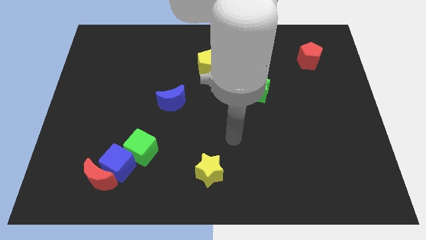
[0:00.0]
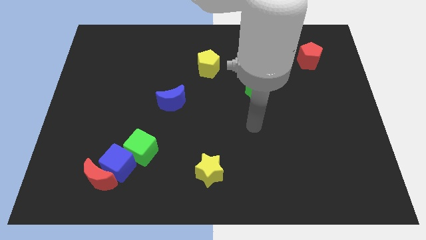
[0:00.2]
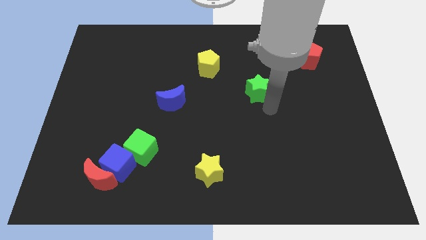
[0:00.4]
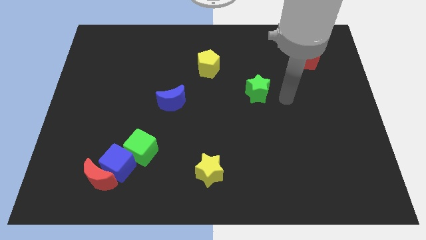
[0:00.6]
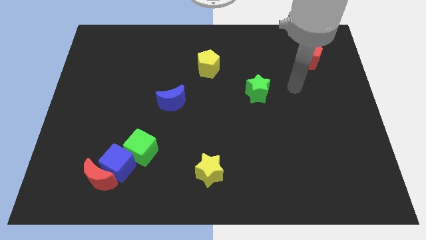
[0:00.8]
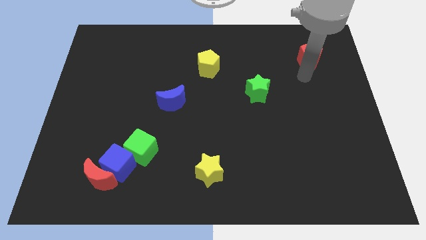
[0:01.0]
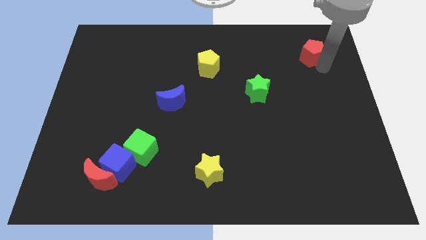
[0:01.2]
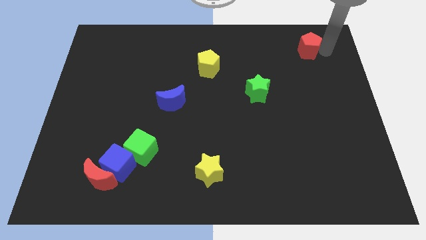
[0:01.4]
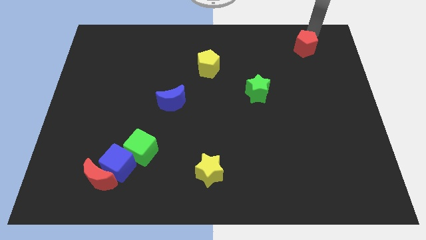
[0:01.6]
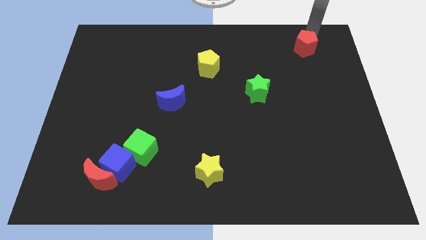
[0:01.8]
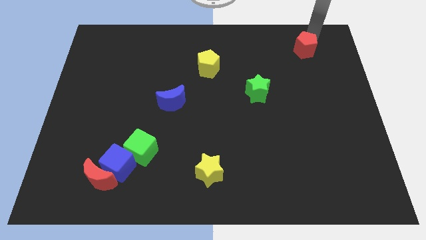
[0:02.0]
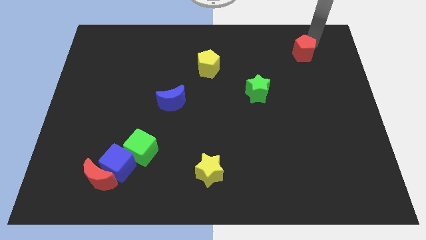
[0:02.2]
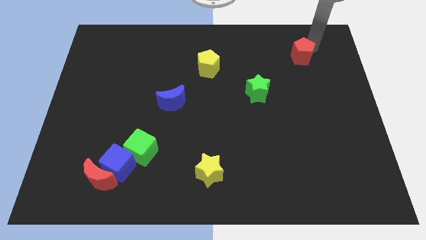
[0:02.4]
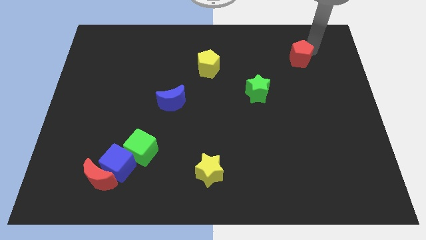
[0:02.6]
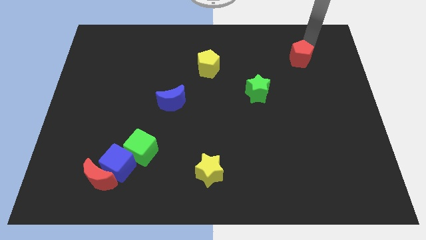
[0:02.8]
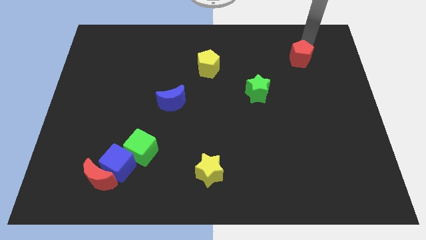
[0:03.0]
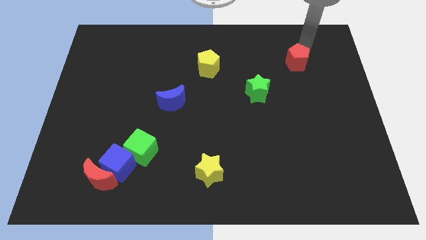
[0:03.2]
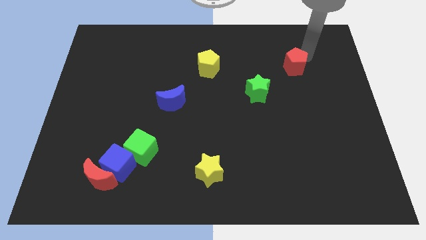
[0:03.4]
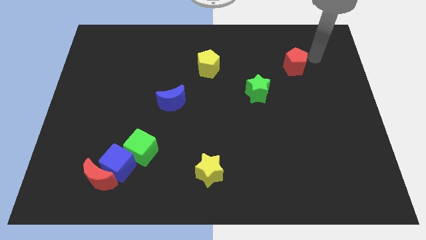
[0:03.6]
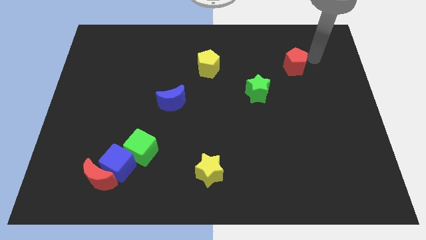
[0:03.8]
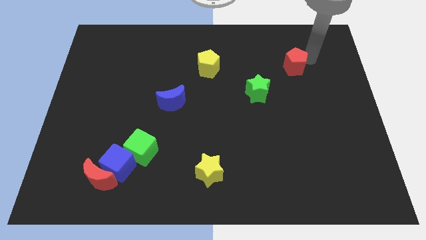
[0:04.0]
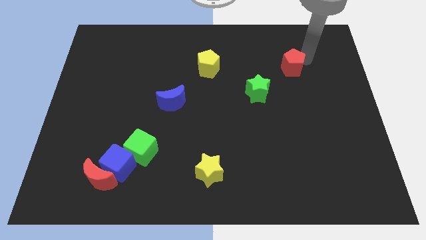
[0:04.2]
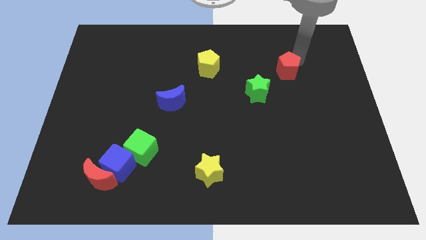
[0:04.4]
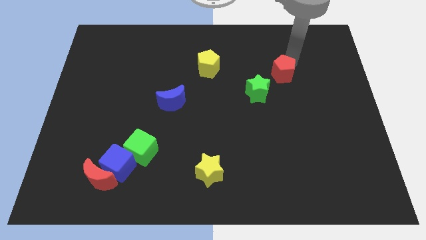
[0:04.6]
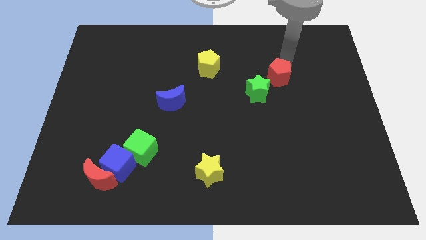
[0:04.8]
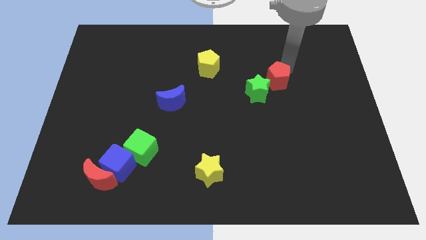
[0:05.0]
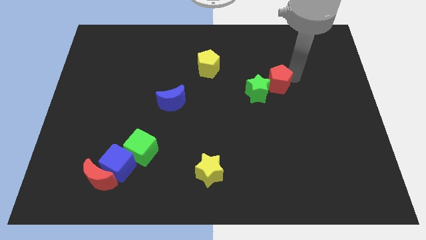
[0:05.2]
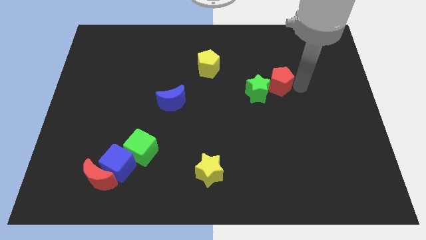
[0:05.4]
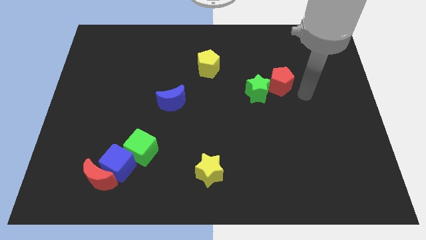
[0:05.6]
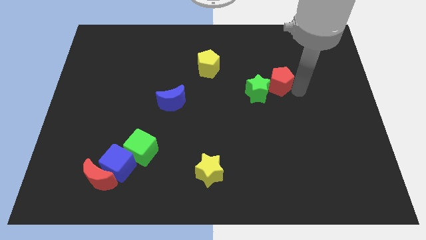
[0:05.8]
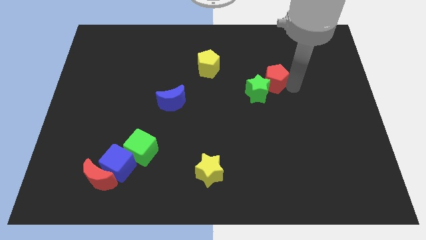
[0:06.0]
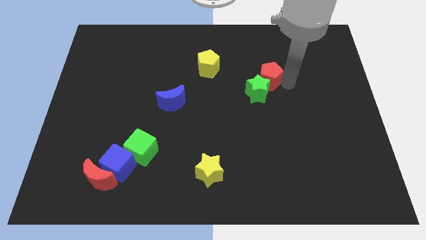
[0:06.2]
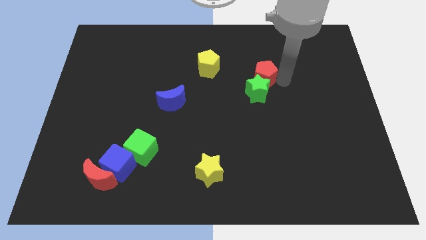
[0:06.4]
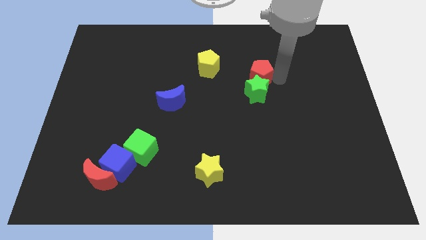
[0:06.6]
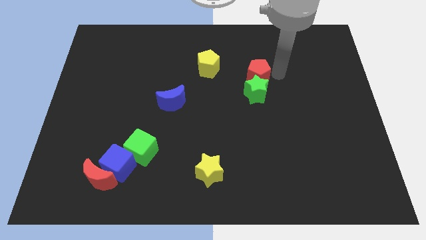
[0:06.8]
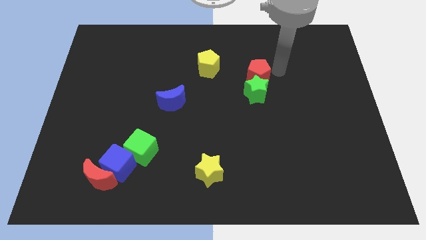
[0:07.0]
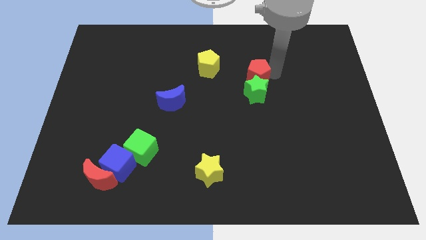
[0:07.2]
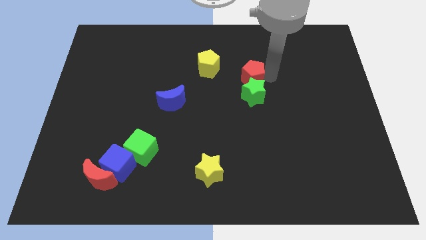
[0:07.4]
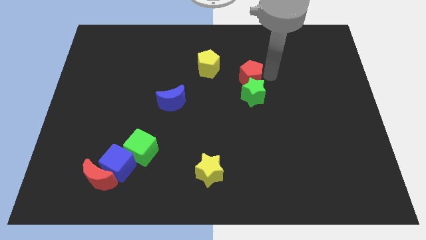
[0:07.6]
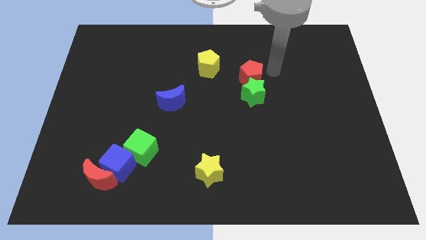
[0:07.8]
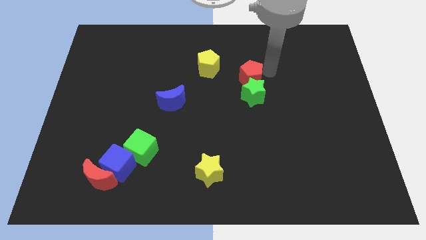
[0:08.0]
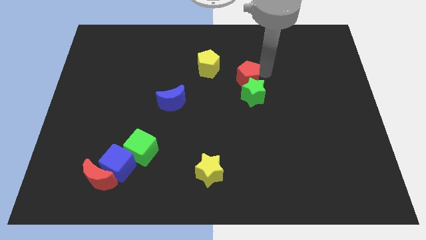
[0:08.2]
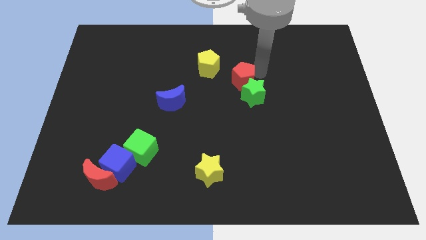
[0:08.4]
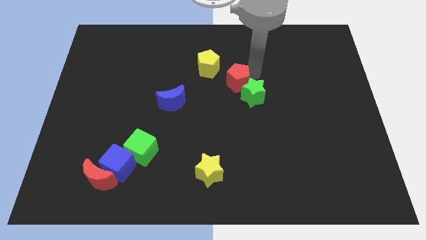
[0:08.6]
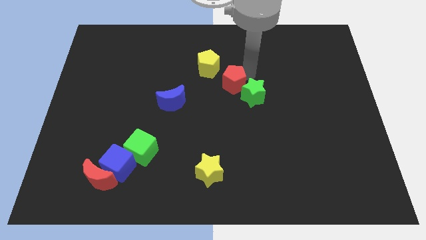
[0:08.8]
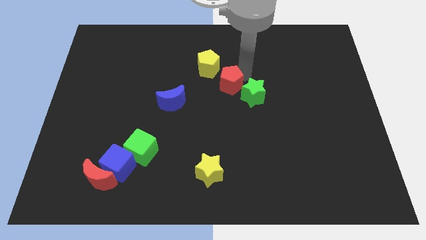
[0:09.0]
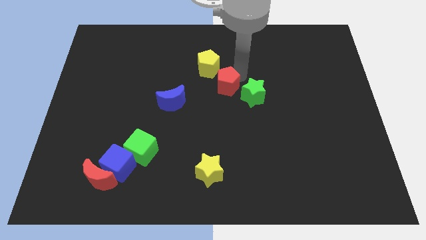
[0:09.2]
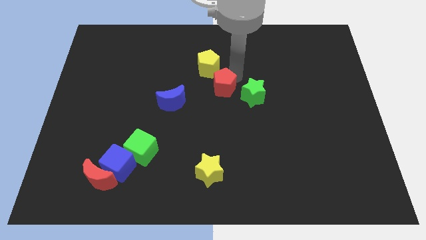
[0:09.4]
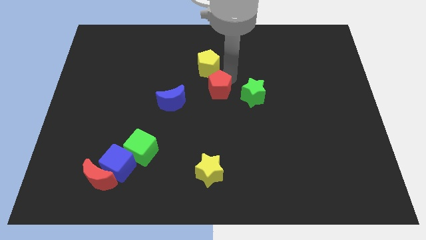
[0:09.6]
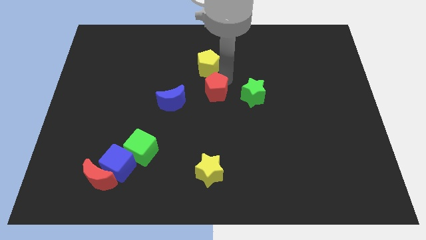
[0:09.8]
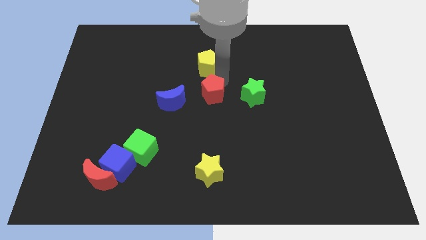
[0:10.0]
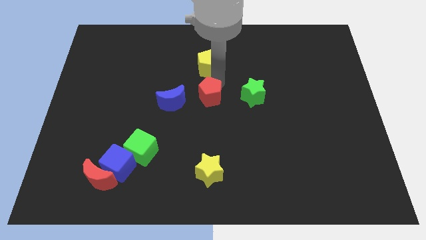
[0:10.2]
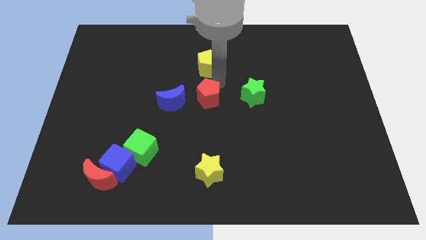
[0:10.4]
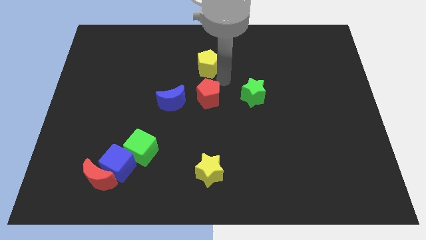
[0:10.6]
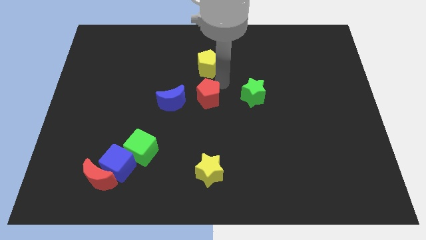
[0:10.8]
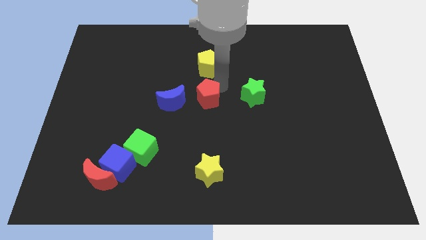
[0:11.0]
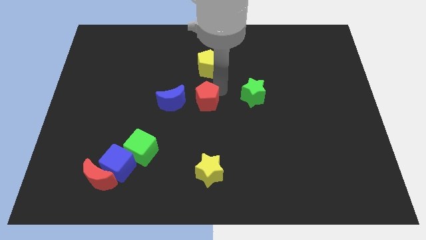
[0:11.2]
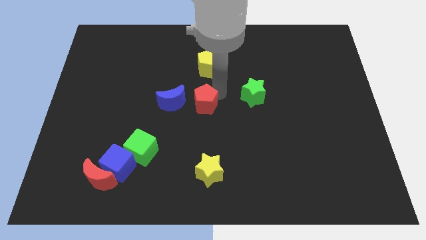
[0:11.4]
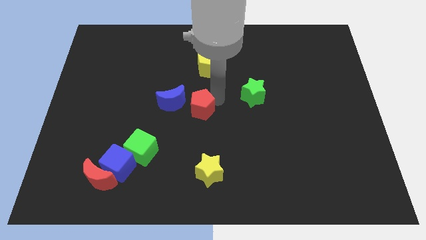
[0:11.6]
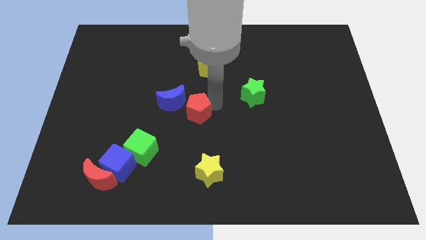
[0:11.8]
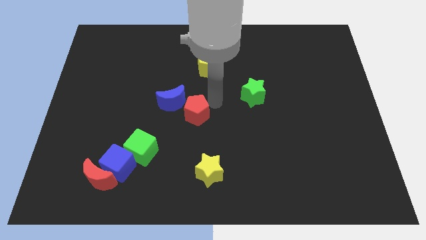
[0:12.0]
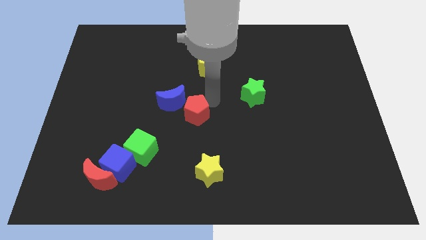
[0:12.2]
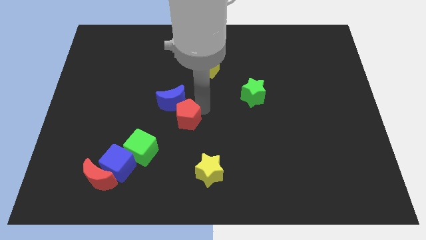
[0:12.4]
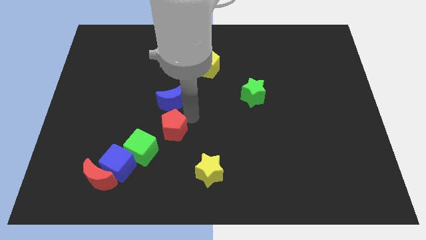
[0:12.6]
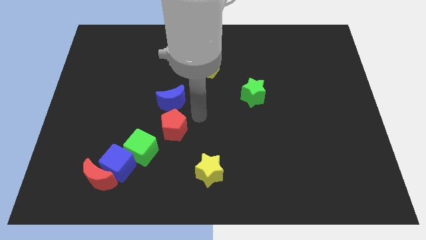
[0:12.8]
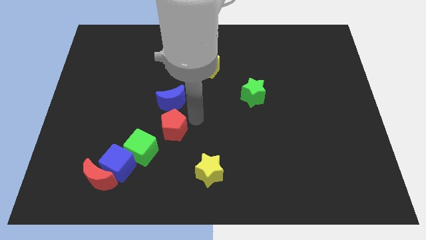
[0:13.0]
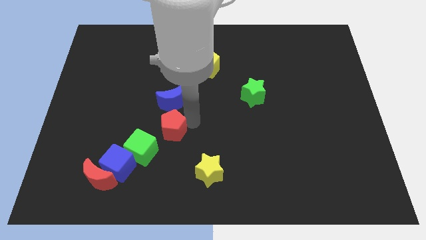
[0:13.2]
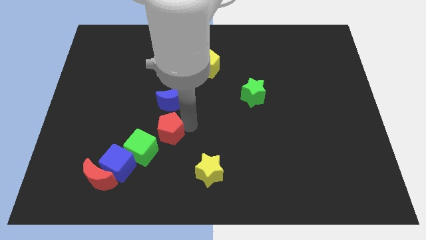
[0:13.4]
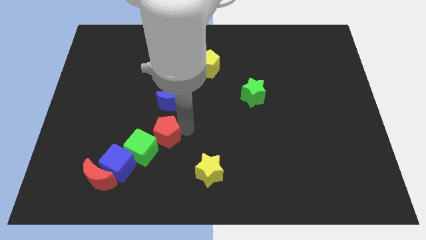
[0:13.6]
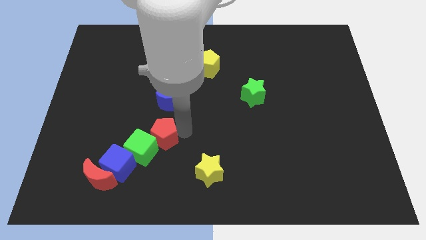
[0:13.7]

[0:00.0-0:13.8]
slide the red pentagon close to the green cube

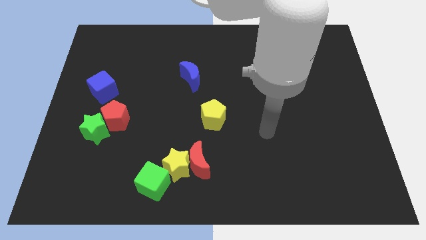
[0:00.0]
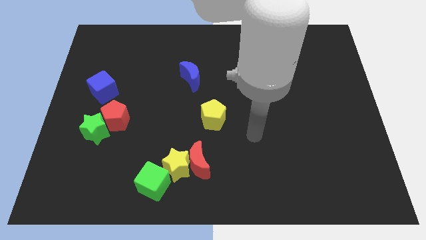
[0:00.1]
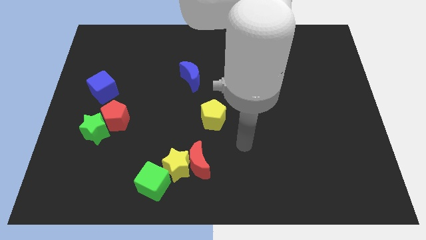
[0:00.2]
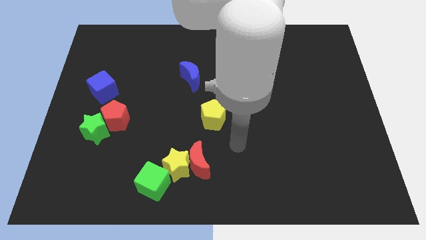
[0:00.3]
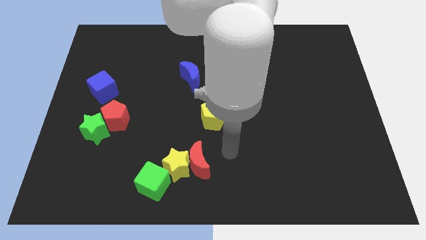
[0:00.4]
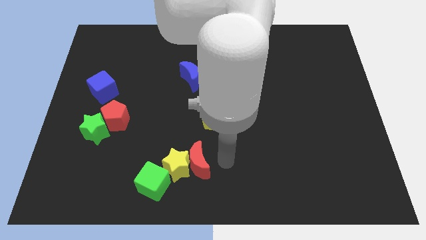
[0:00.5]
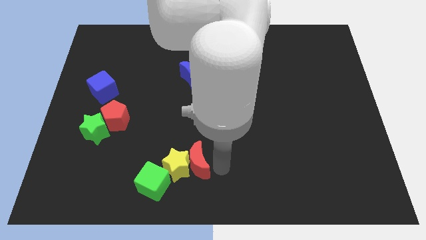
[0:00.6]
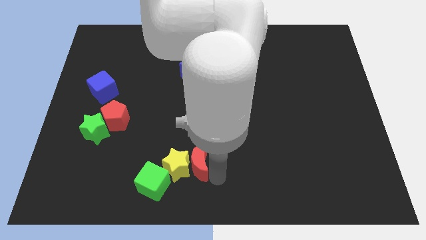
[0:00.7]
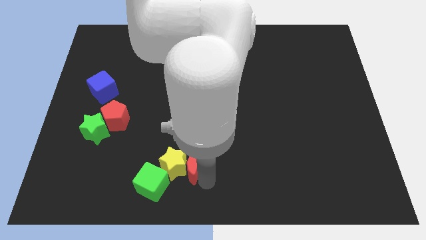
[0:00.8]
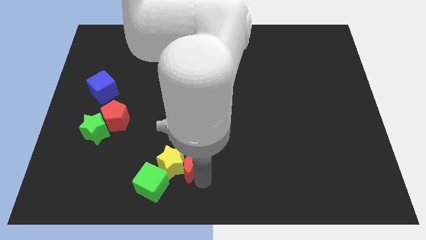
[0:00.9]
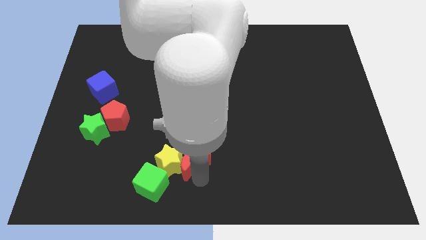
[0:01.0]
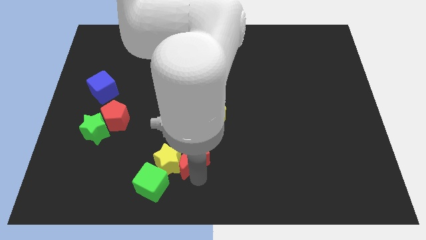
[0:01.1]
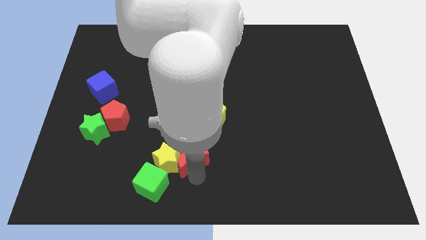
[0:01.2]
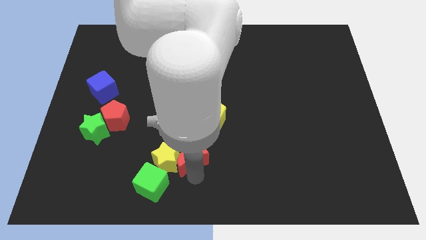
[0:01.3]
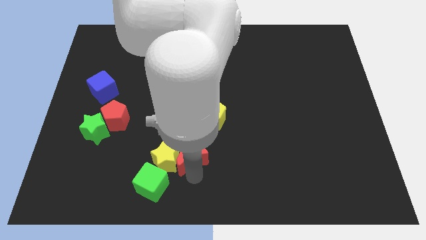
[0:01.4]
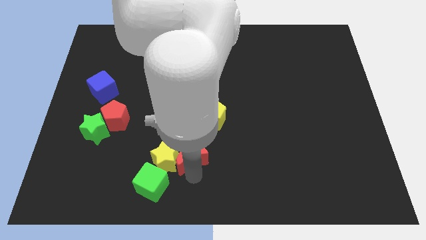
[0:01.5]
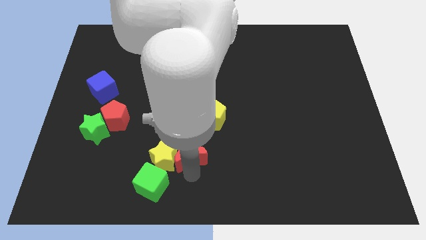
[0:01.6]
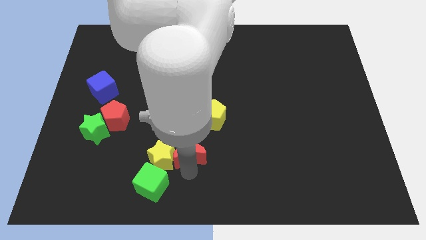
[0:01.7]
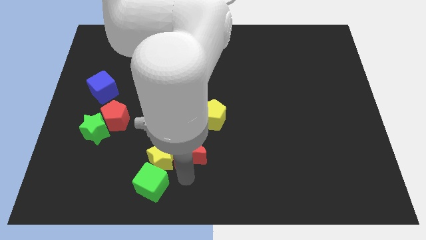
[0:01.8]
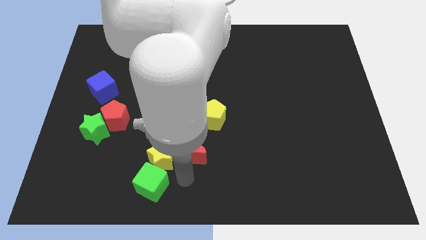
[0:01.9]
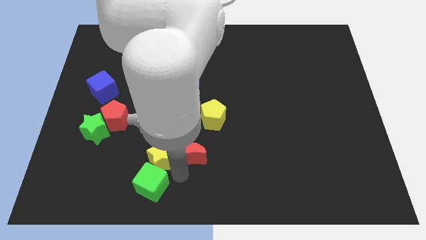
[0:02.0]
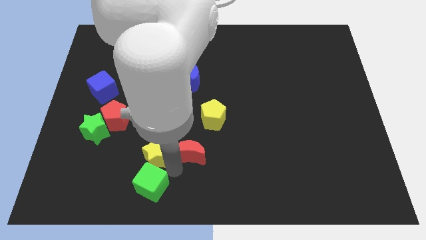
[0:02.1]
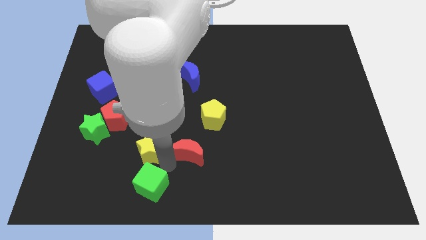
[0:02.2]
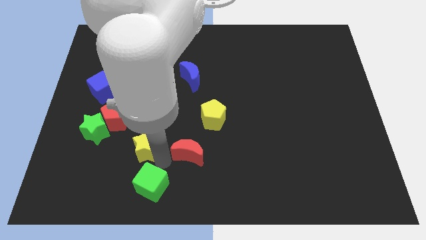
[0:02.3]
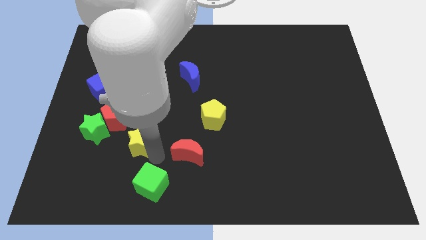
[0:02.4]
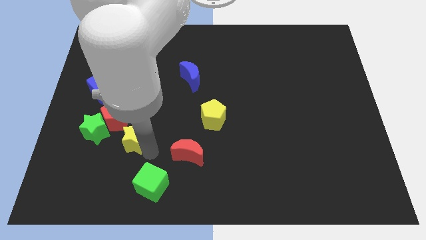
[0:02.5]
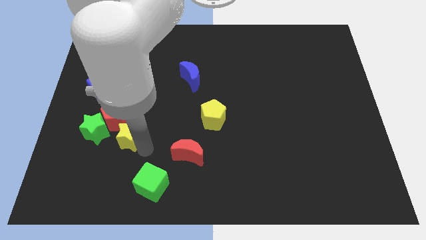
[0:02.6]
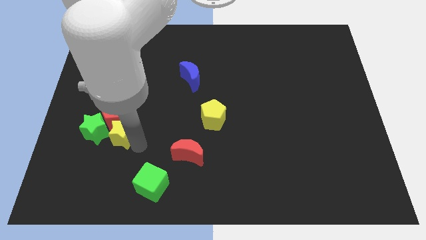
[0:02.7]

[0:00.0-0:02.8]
move the yellow star towards the red pentagon
